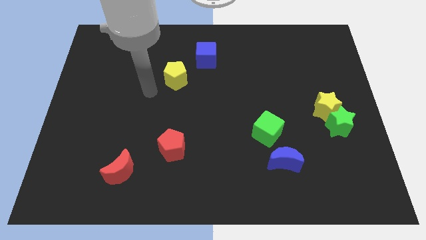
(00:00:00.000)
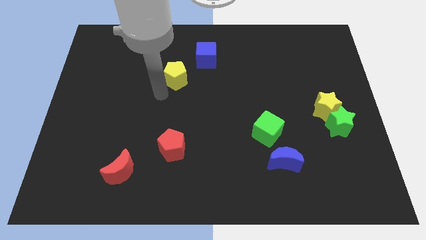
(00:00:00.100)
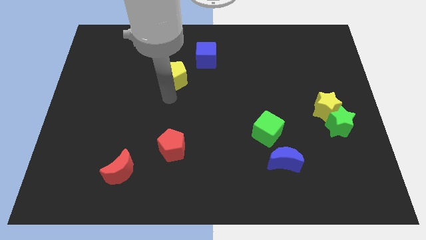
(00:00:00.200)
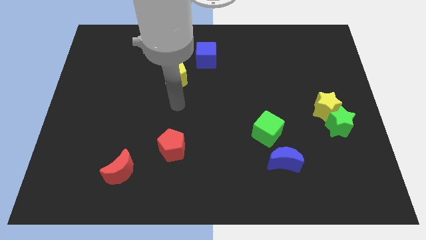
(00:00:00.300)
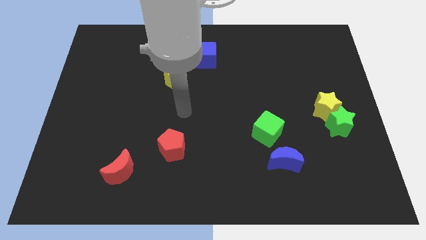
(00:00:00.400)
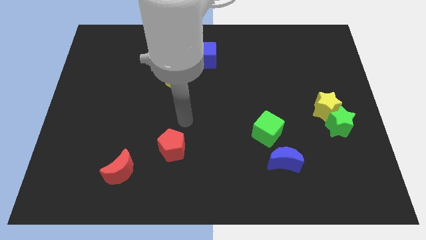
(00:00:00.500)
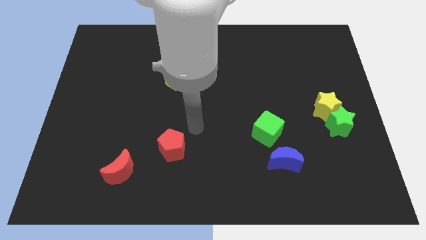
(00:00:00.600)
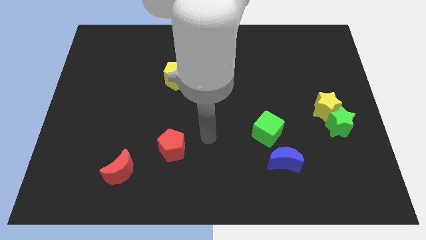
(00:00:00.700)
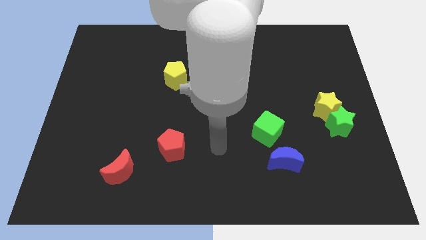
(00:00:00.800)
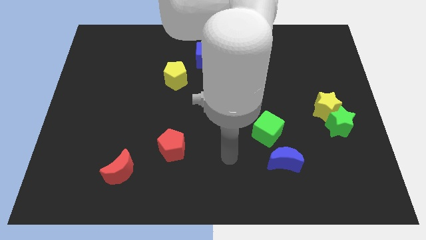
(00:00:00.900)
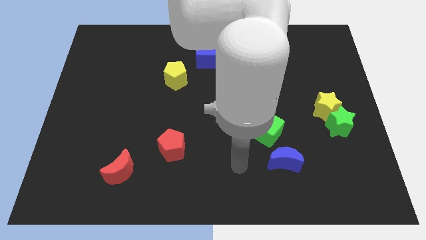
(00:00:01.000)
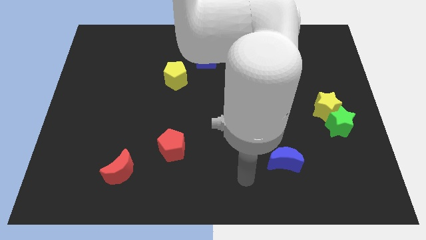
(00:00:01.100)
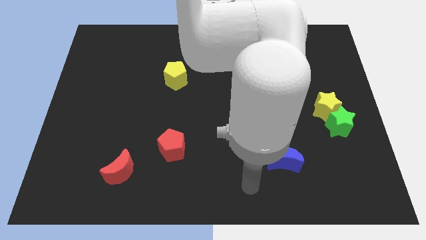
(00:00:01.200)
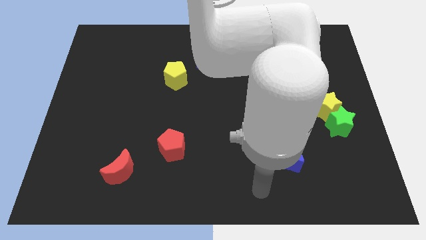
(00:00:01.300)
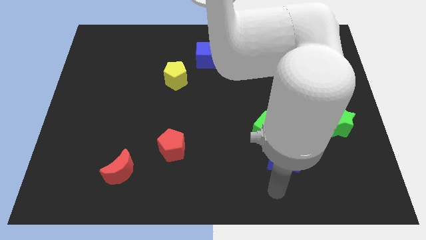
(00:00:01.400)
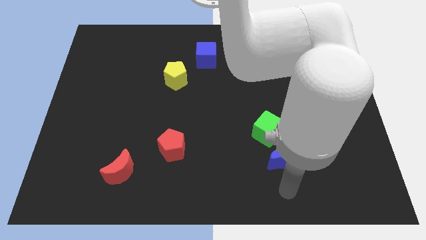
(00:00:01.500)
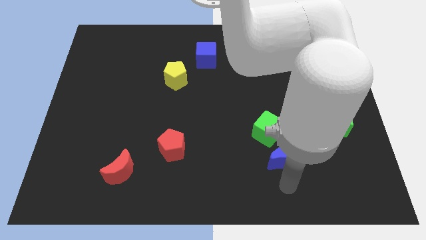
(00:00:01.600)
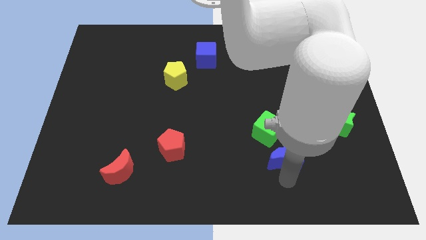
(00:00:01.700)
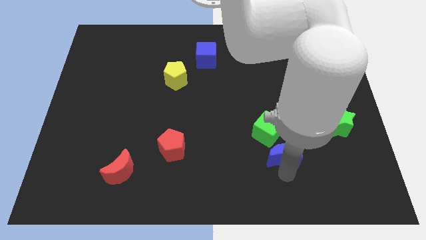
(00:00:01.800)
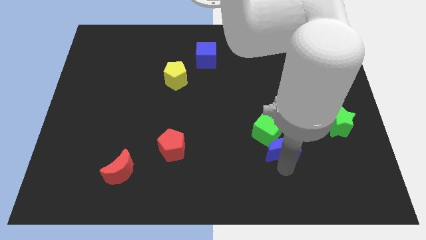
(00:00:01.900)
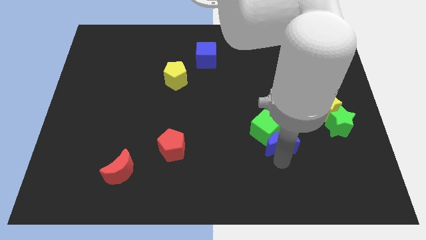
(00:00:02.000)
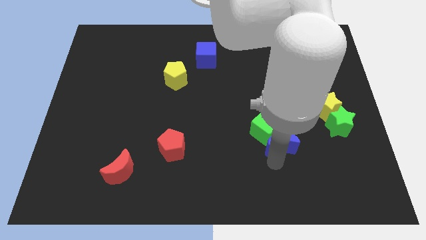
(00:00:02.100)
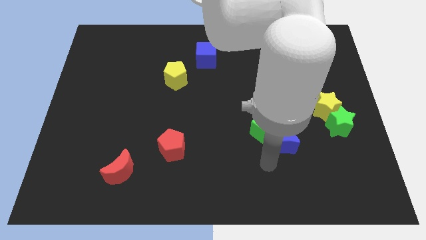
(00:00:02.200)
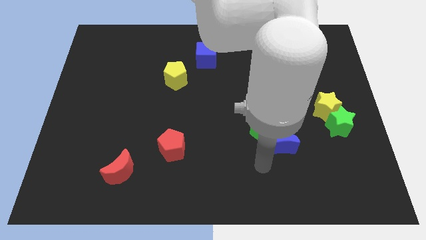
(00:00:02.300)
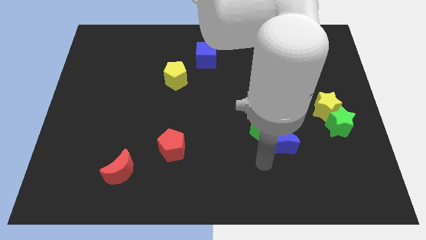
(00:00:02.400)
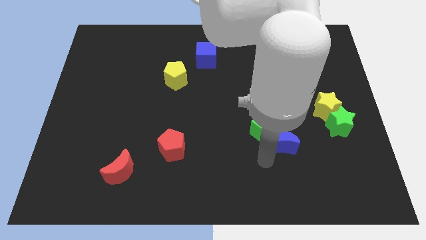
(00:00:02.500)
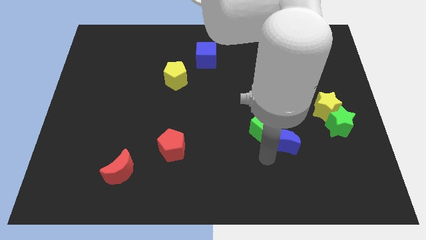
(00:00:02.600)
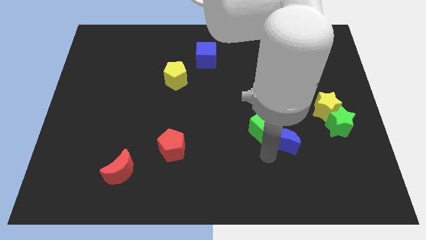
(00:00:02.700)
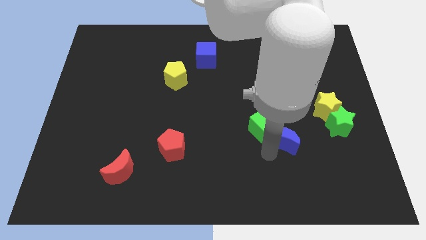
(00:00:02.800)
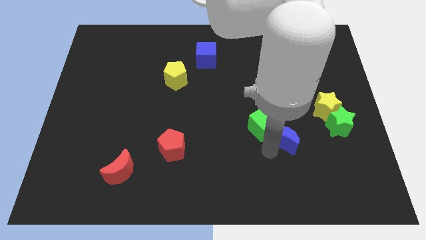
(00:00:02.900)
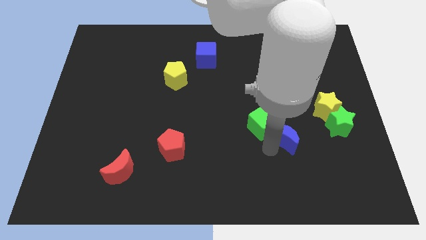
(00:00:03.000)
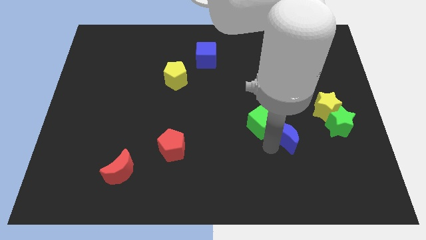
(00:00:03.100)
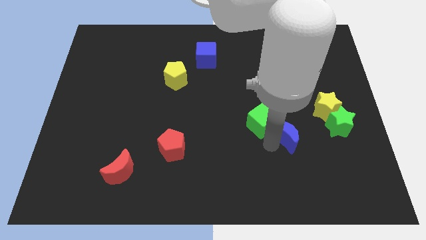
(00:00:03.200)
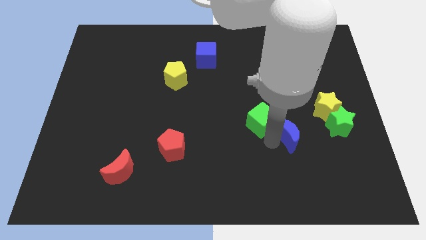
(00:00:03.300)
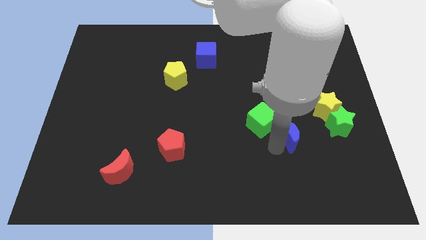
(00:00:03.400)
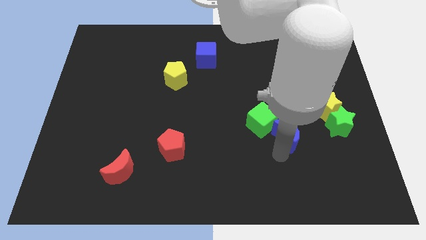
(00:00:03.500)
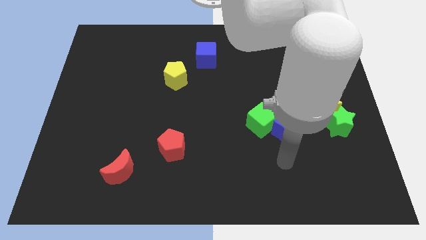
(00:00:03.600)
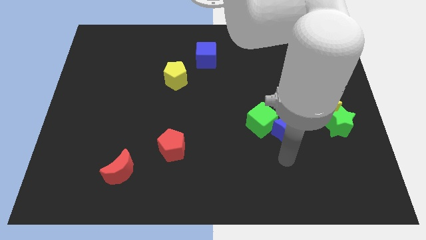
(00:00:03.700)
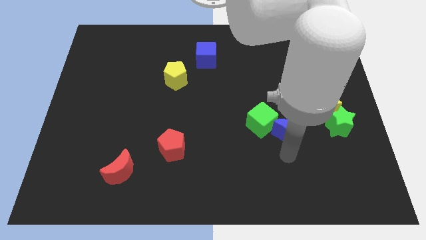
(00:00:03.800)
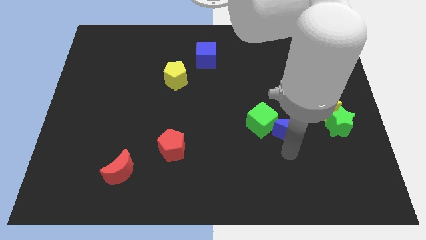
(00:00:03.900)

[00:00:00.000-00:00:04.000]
move the blue moon a little upwards

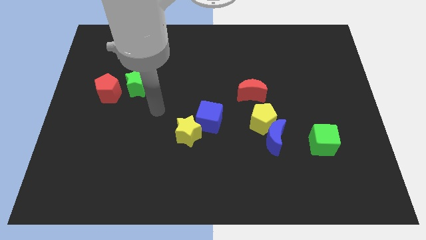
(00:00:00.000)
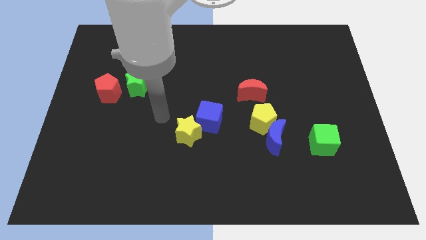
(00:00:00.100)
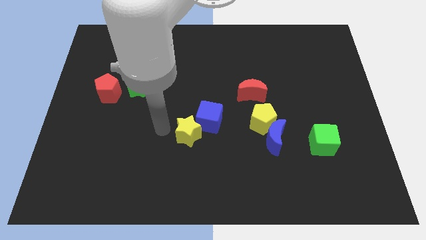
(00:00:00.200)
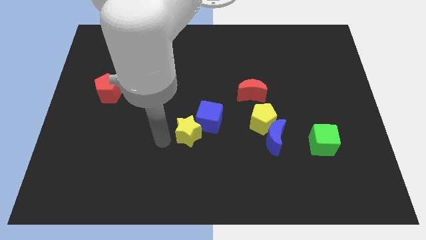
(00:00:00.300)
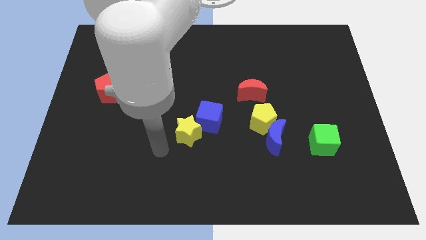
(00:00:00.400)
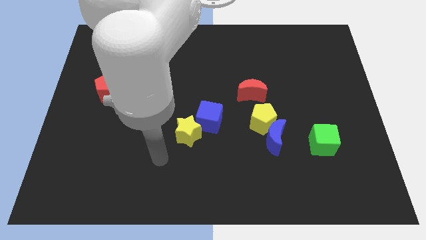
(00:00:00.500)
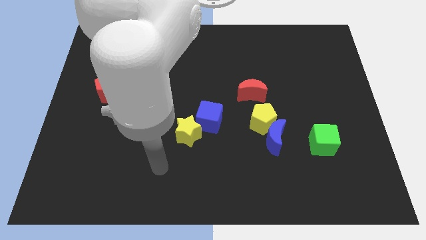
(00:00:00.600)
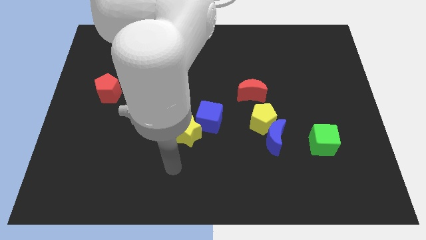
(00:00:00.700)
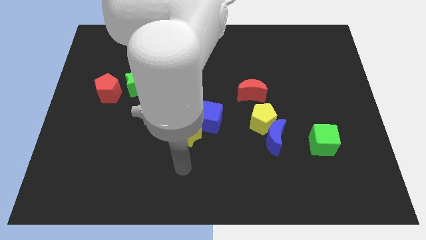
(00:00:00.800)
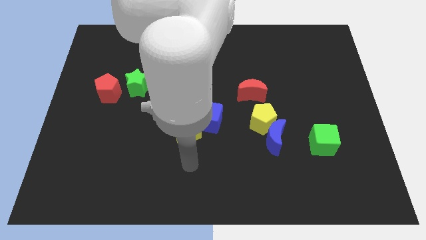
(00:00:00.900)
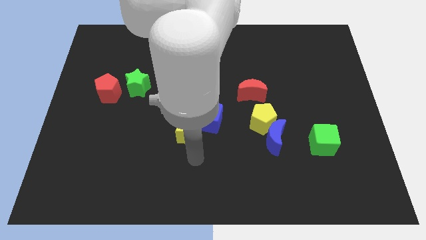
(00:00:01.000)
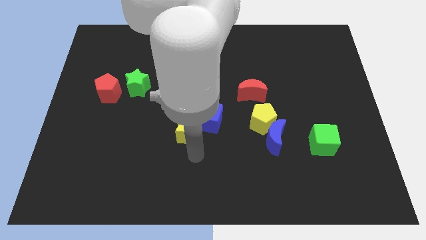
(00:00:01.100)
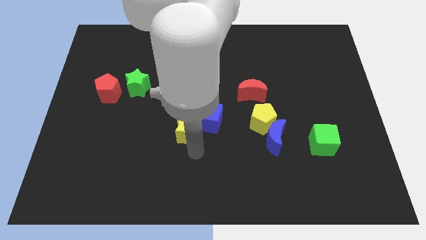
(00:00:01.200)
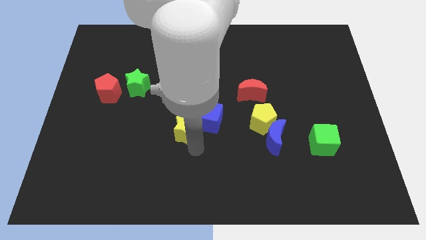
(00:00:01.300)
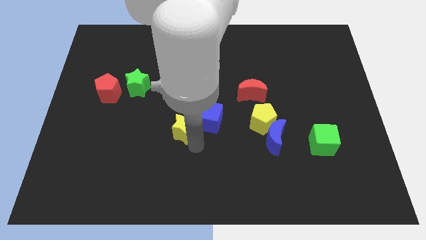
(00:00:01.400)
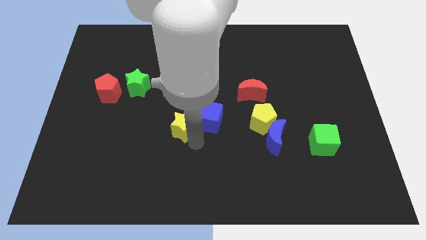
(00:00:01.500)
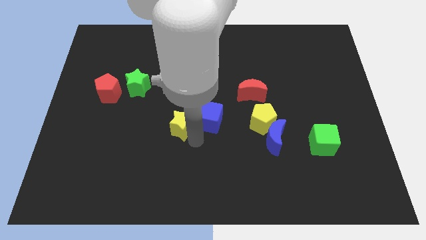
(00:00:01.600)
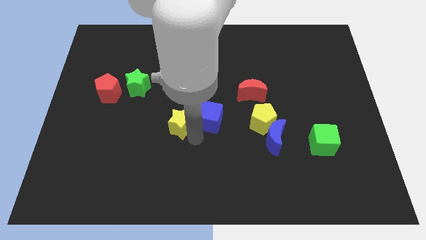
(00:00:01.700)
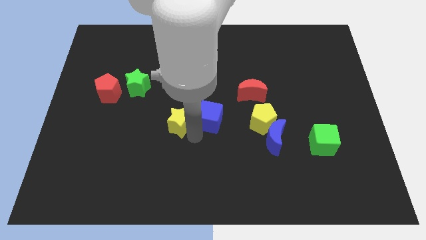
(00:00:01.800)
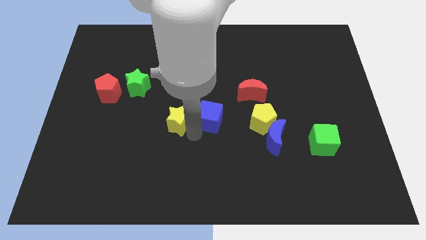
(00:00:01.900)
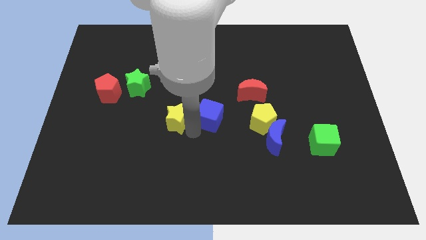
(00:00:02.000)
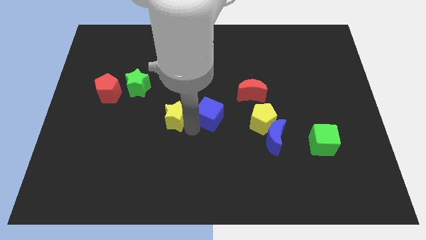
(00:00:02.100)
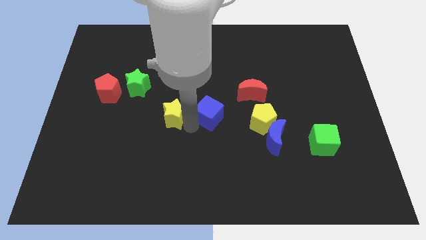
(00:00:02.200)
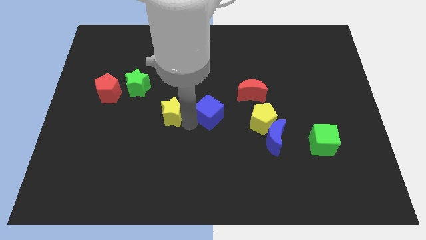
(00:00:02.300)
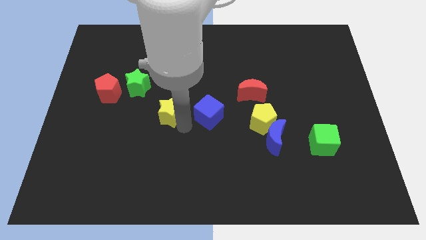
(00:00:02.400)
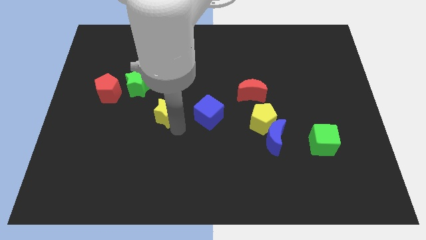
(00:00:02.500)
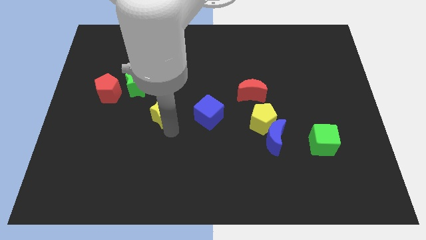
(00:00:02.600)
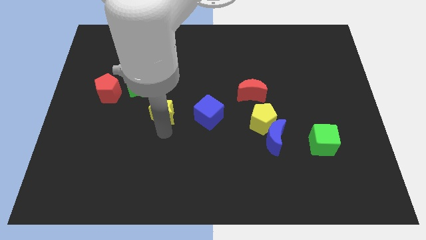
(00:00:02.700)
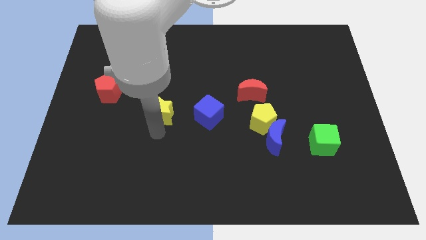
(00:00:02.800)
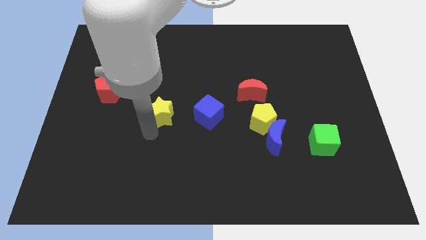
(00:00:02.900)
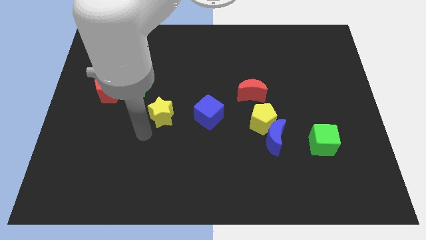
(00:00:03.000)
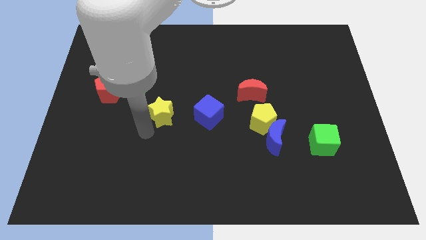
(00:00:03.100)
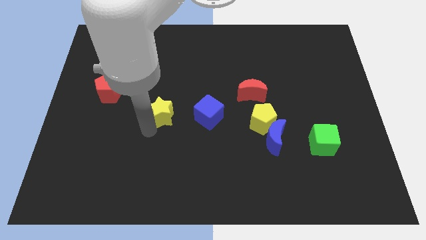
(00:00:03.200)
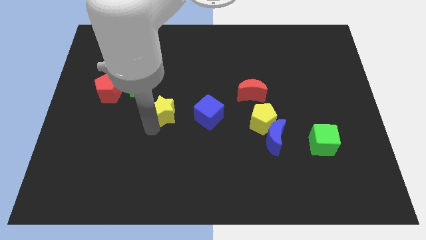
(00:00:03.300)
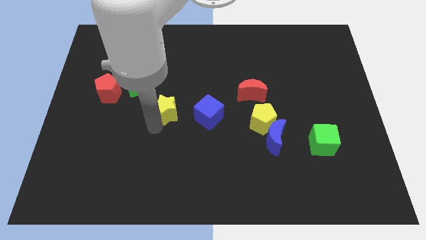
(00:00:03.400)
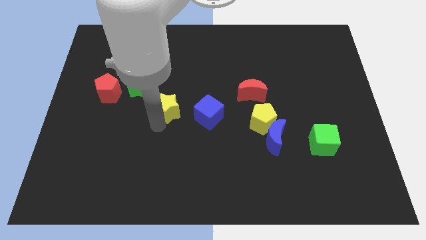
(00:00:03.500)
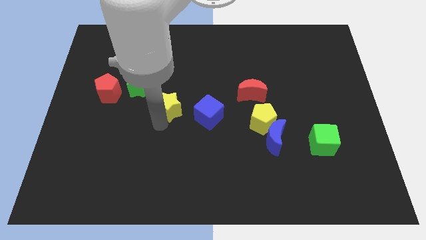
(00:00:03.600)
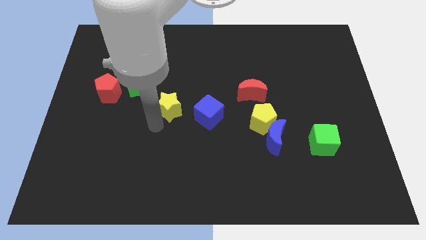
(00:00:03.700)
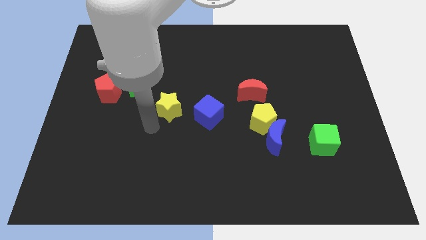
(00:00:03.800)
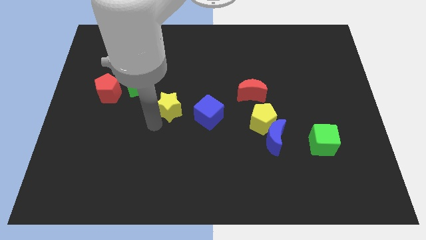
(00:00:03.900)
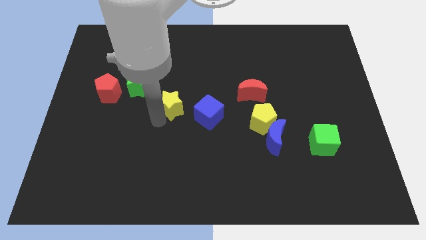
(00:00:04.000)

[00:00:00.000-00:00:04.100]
slightly push the yellow star up
